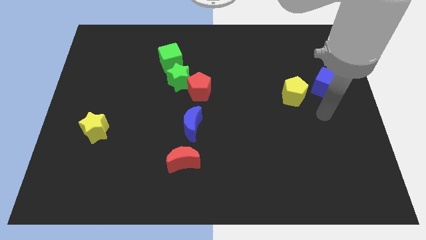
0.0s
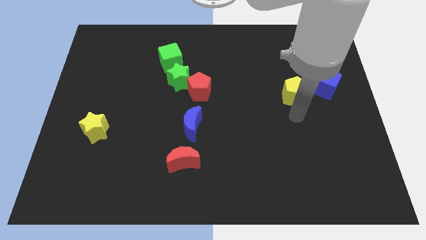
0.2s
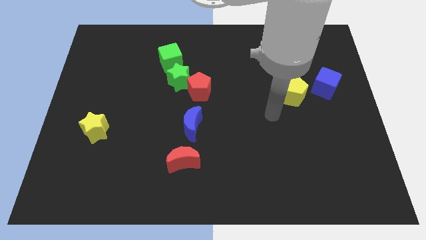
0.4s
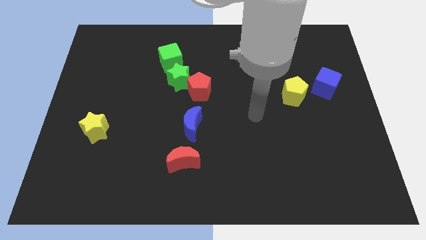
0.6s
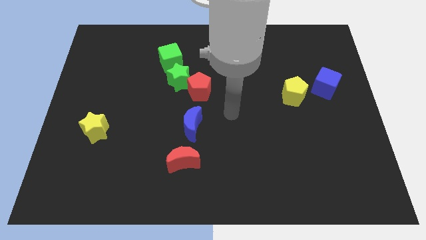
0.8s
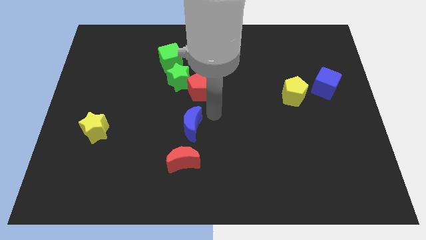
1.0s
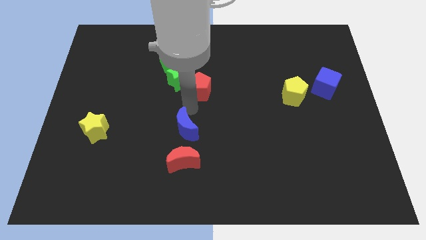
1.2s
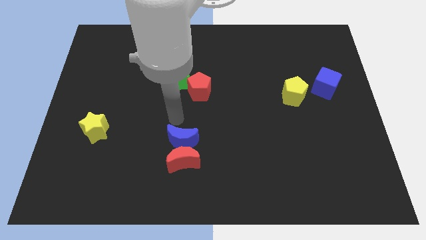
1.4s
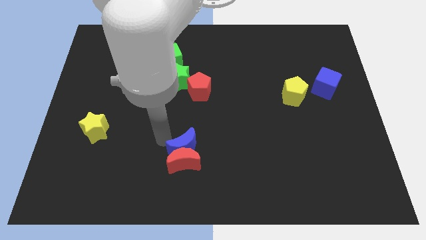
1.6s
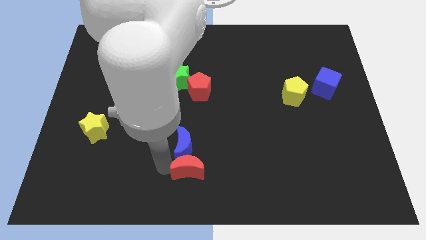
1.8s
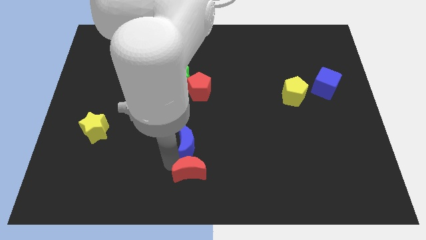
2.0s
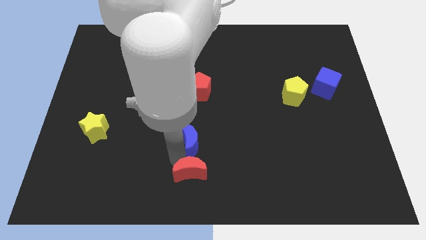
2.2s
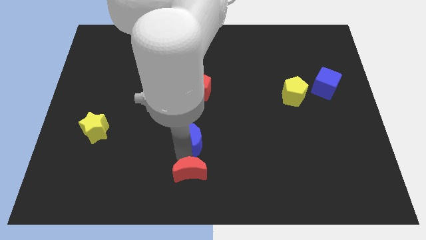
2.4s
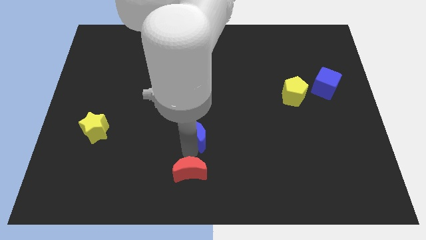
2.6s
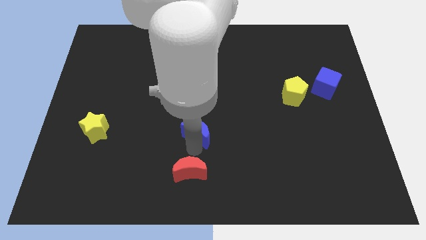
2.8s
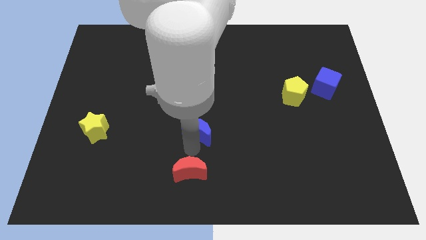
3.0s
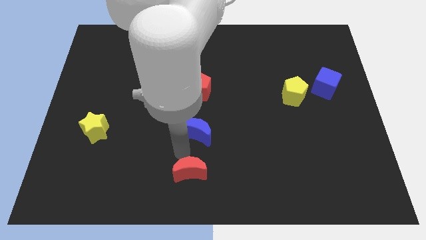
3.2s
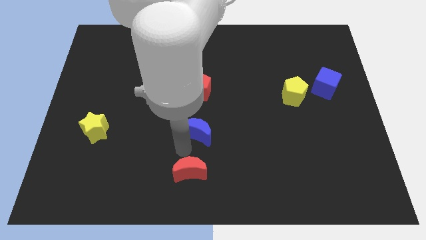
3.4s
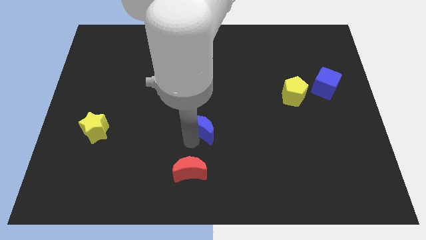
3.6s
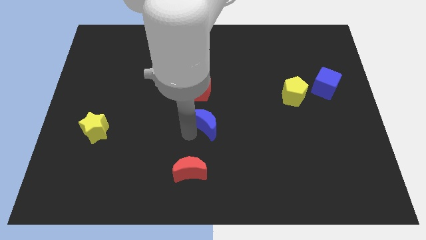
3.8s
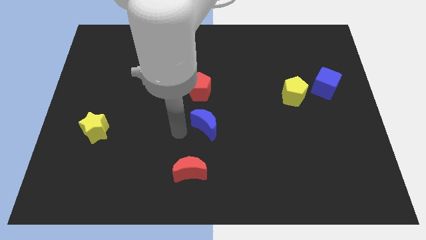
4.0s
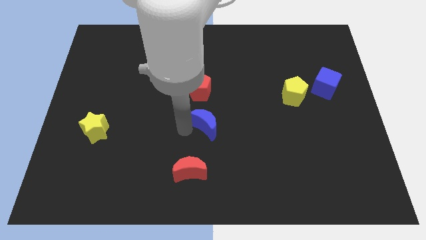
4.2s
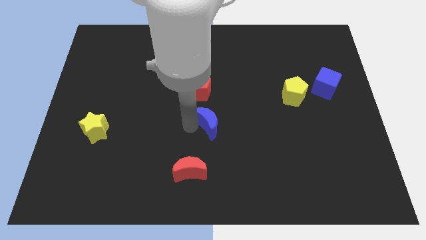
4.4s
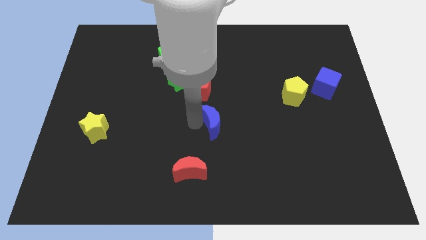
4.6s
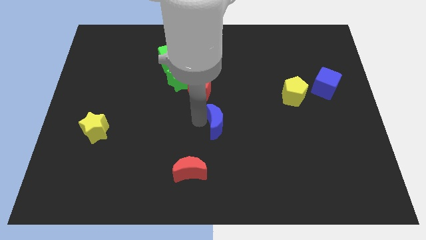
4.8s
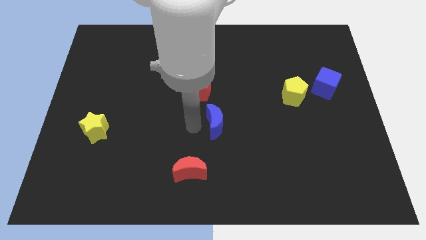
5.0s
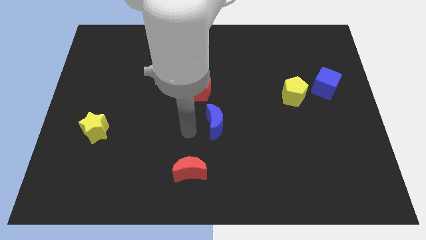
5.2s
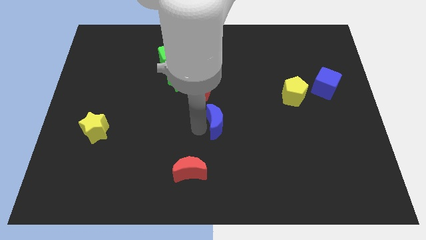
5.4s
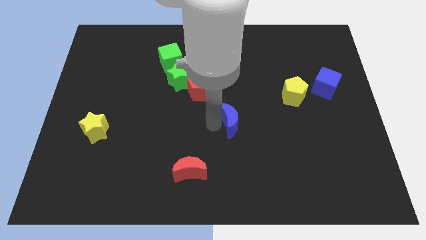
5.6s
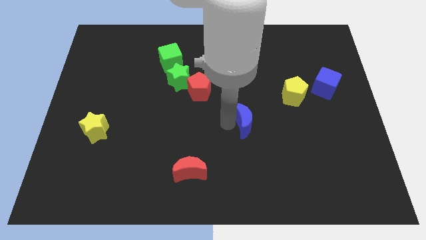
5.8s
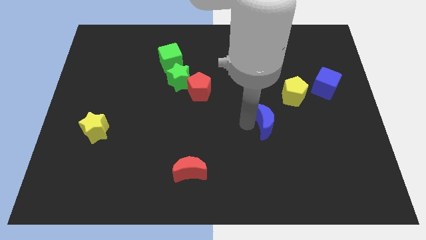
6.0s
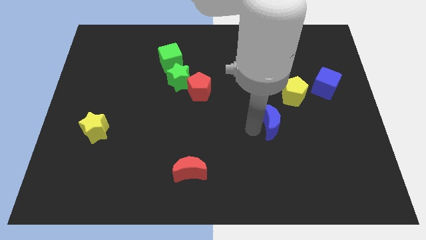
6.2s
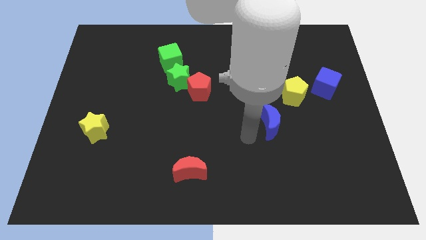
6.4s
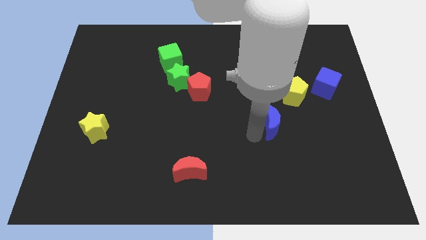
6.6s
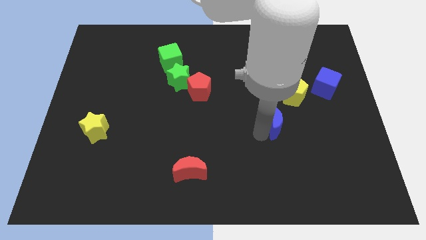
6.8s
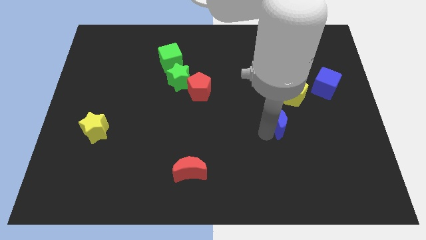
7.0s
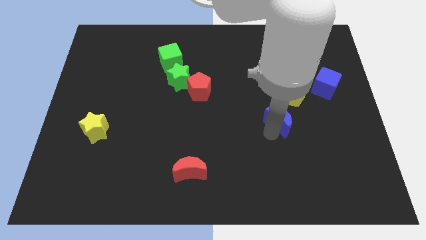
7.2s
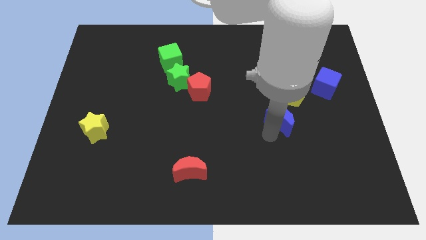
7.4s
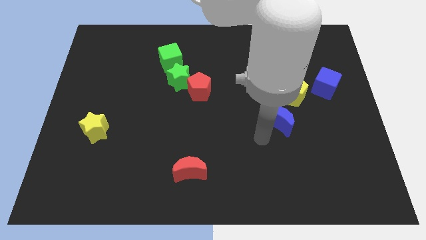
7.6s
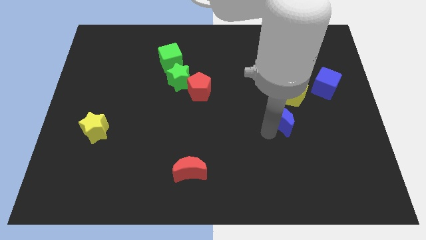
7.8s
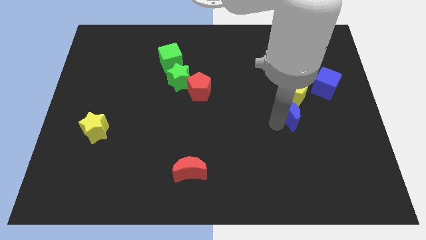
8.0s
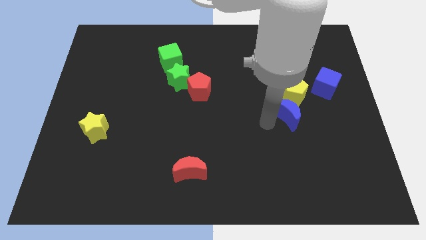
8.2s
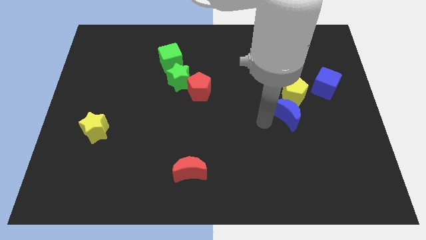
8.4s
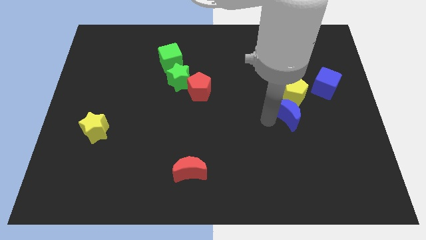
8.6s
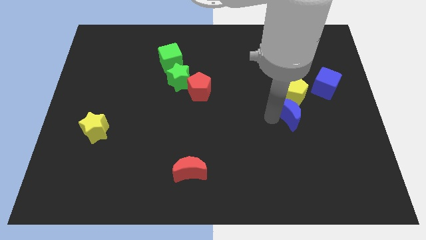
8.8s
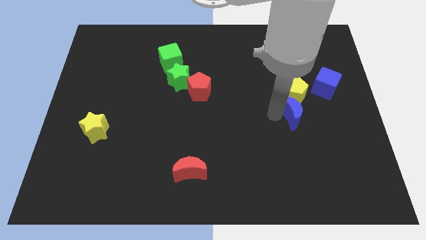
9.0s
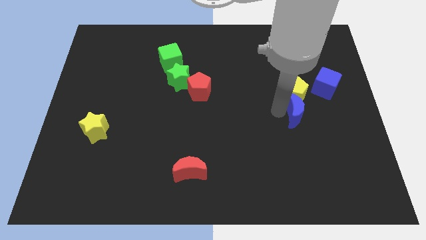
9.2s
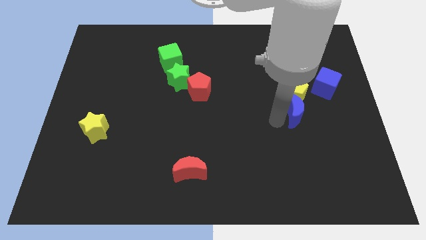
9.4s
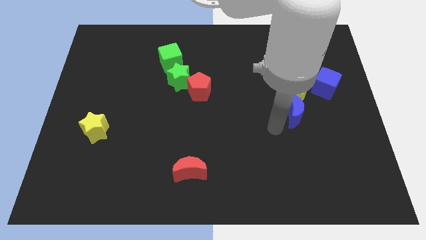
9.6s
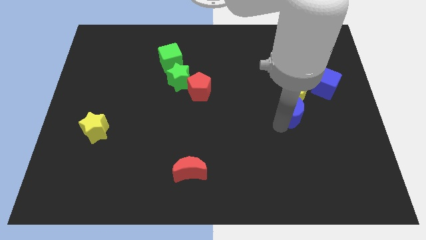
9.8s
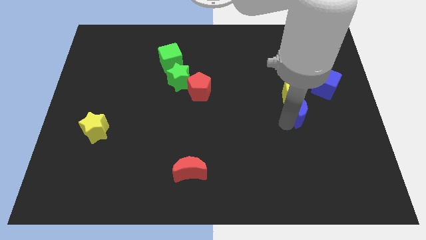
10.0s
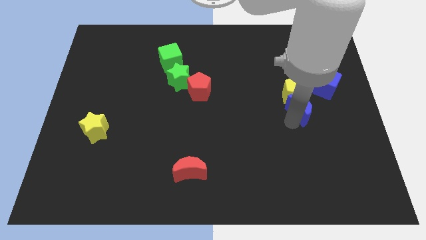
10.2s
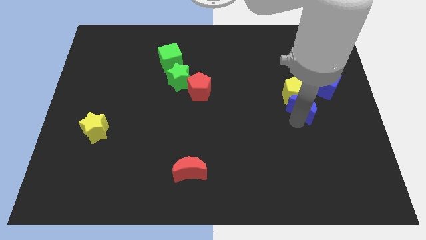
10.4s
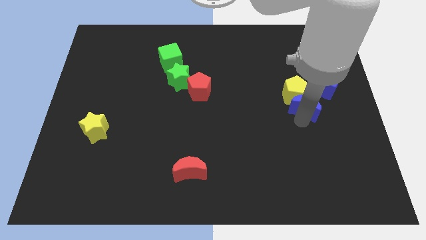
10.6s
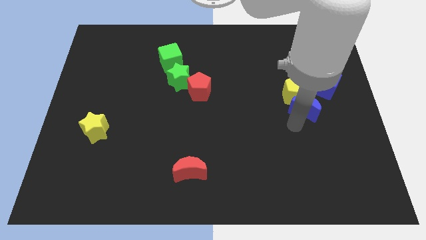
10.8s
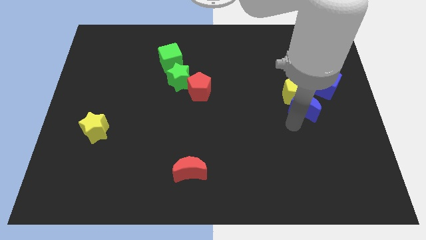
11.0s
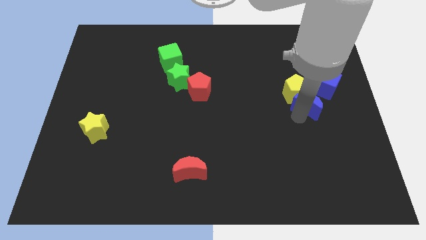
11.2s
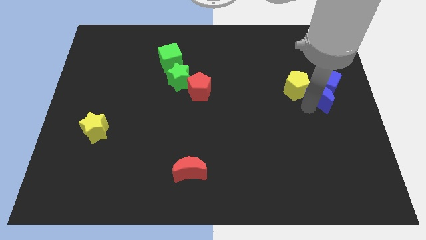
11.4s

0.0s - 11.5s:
slide the blue moon to the blue cube

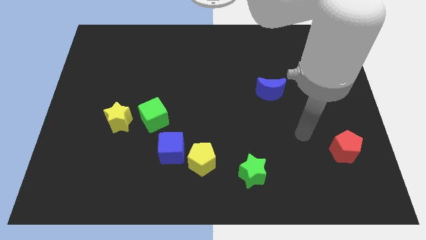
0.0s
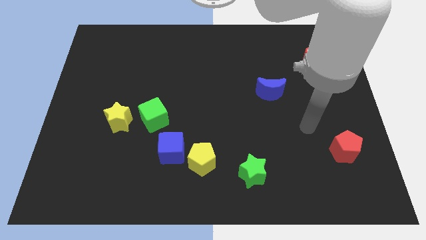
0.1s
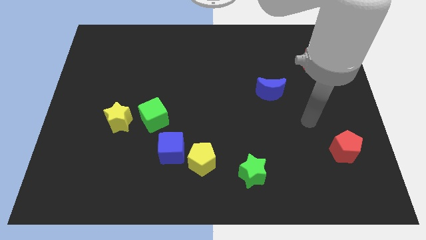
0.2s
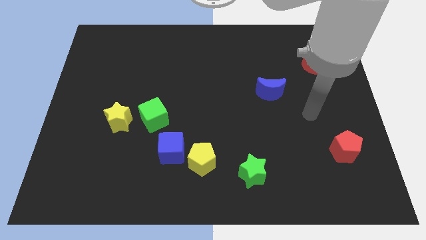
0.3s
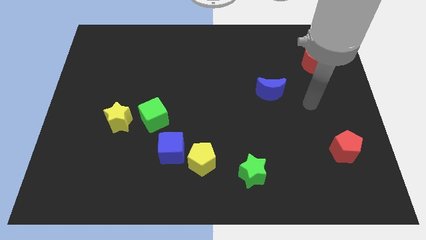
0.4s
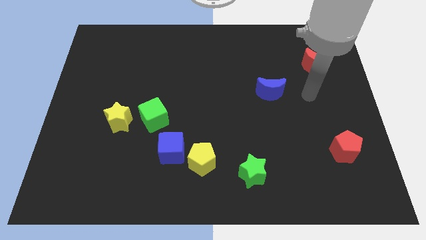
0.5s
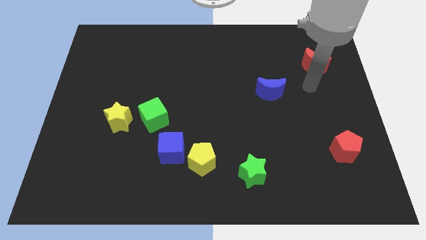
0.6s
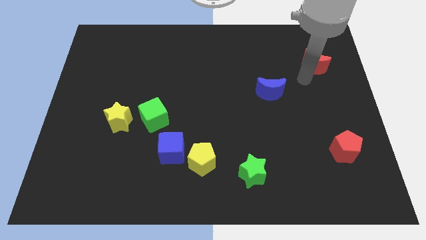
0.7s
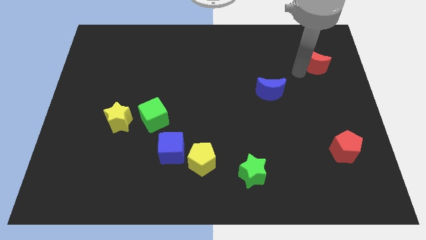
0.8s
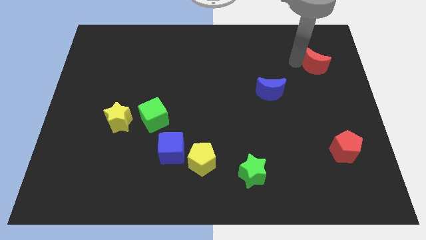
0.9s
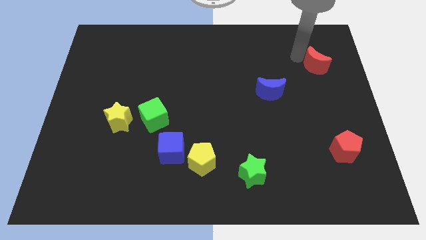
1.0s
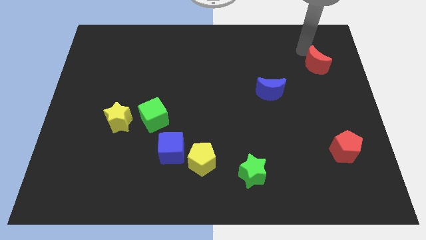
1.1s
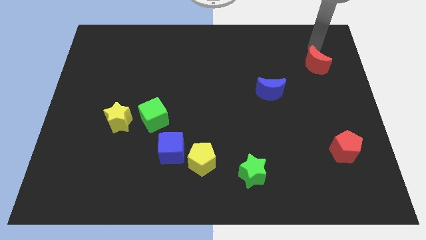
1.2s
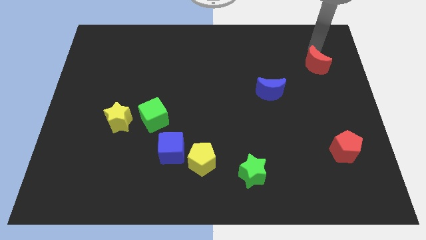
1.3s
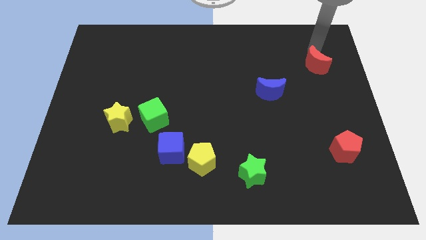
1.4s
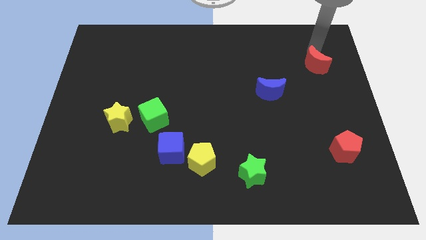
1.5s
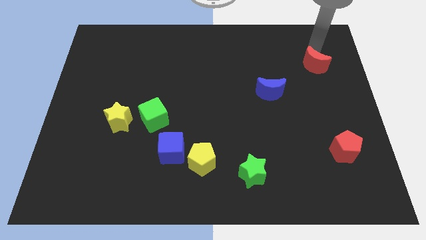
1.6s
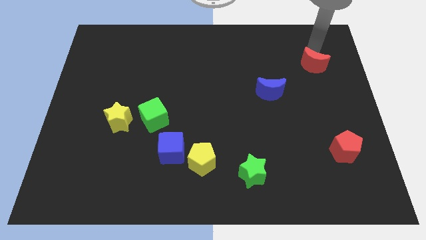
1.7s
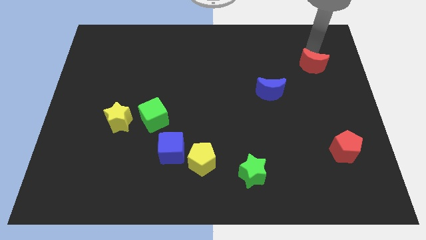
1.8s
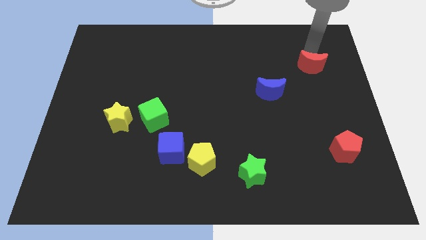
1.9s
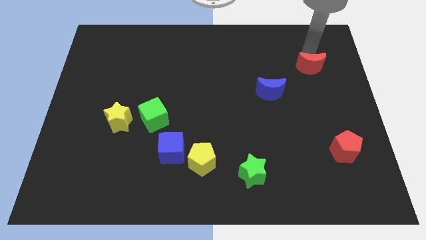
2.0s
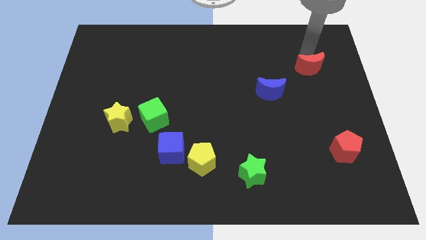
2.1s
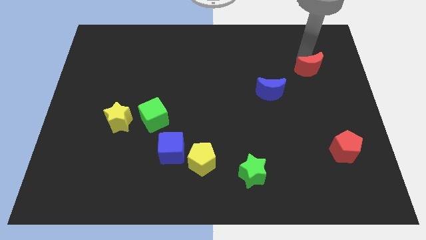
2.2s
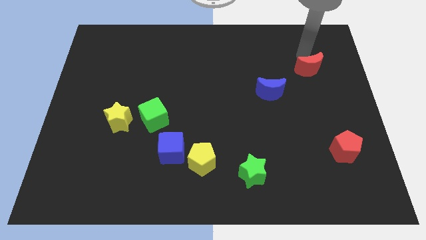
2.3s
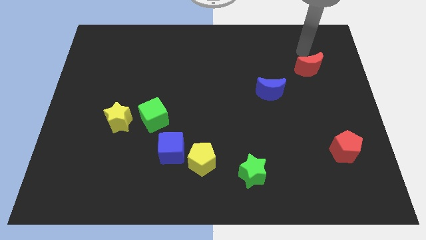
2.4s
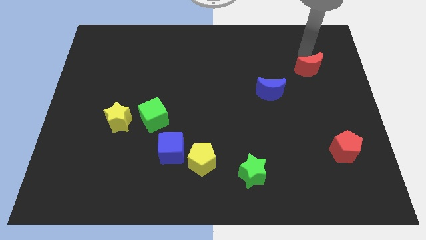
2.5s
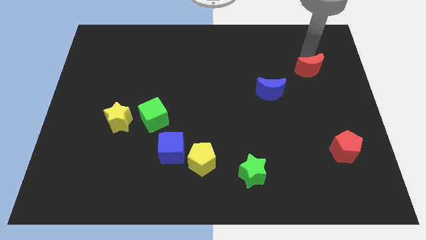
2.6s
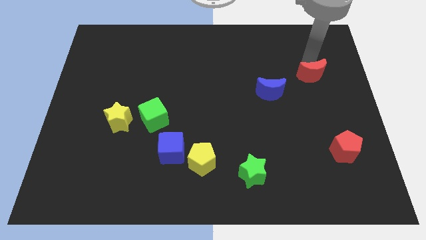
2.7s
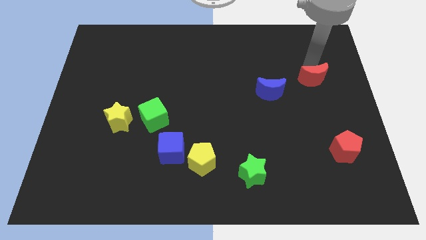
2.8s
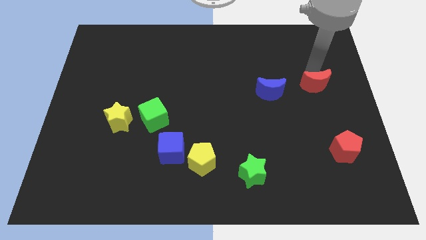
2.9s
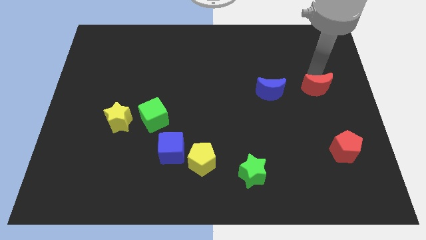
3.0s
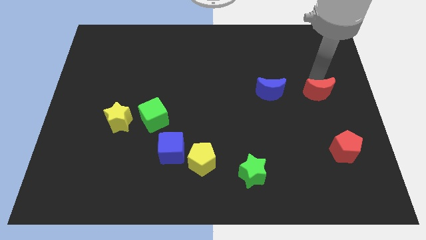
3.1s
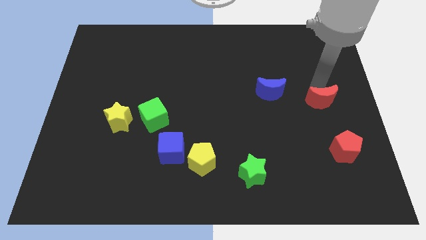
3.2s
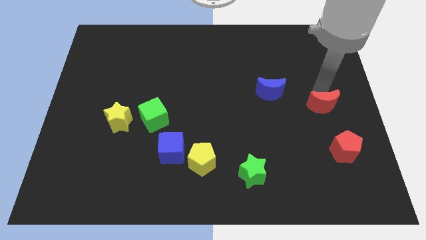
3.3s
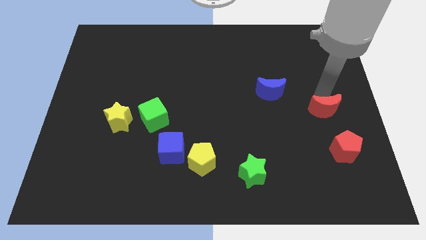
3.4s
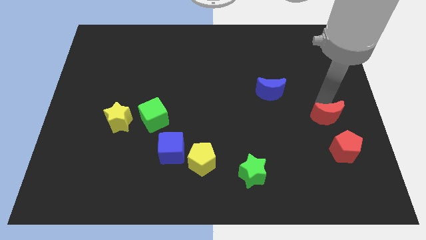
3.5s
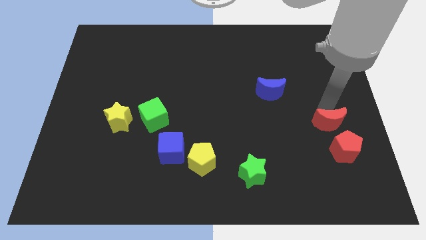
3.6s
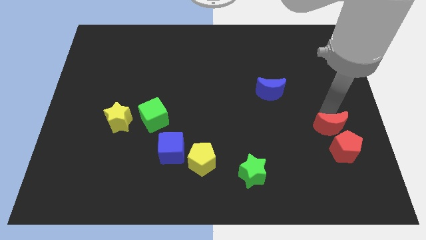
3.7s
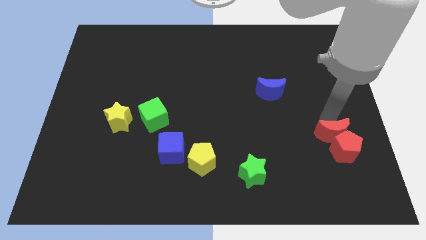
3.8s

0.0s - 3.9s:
put the red moon to the red pentagon
